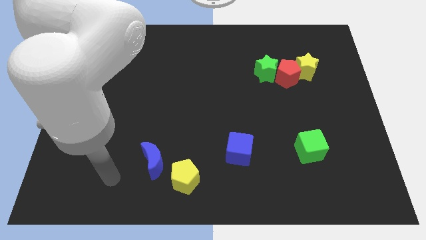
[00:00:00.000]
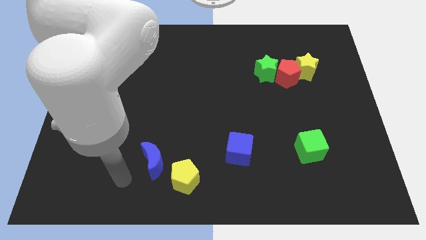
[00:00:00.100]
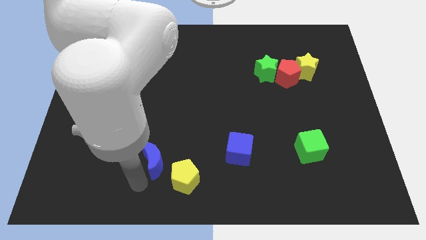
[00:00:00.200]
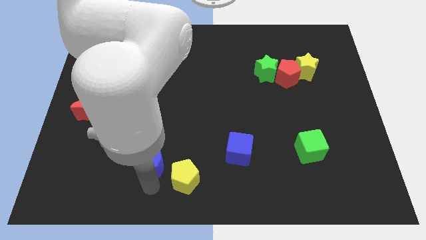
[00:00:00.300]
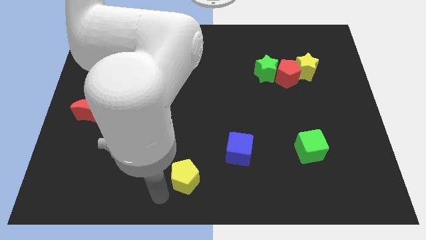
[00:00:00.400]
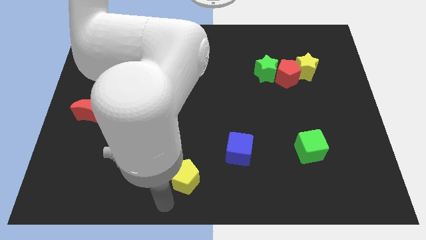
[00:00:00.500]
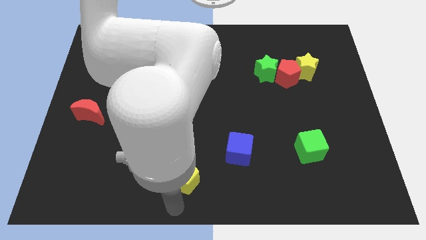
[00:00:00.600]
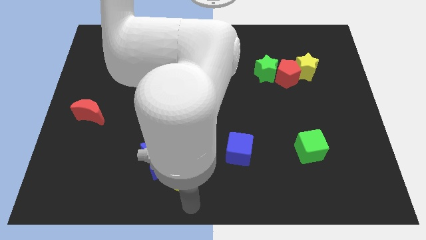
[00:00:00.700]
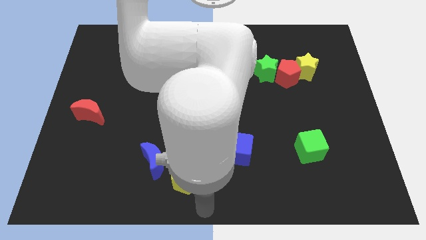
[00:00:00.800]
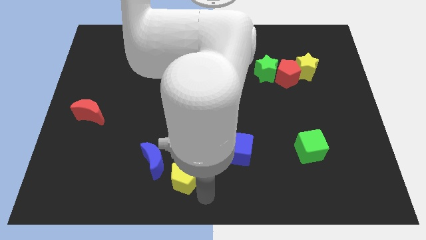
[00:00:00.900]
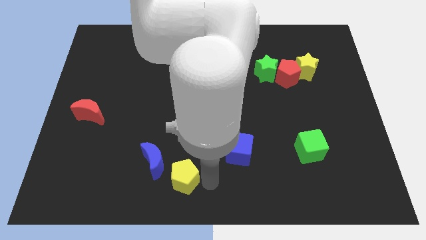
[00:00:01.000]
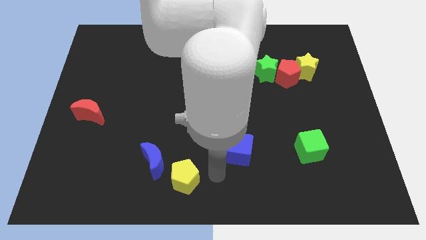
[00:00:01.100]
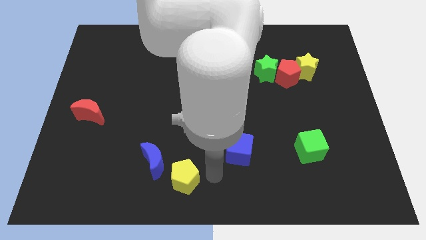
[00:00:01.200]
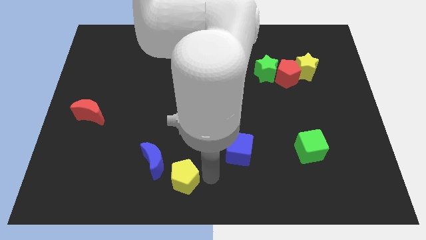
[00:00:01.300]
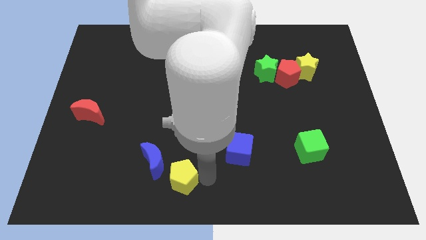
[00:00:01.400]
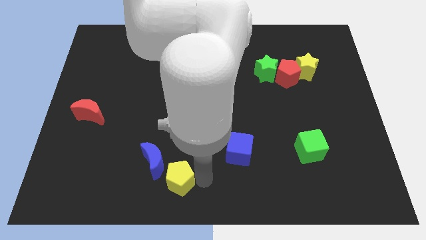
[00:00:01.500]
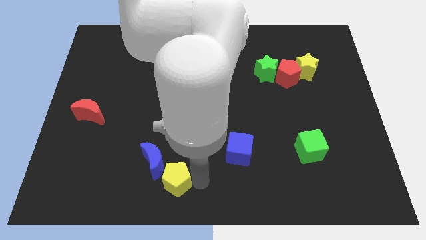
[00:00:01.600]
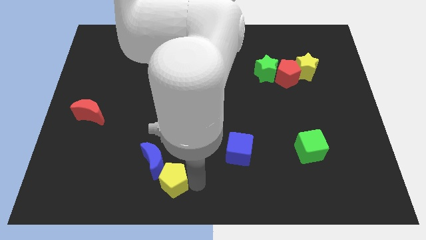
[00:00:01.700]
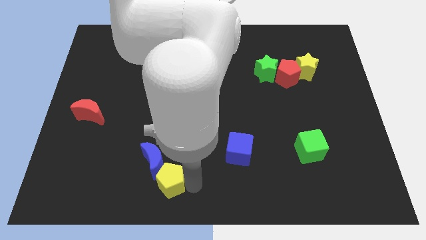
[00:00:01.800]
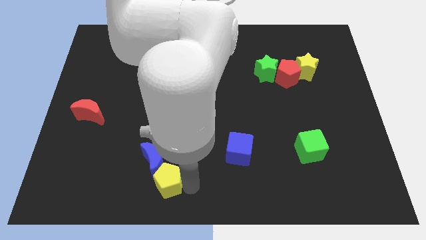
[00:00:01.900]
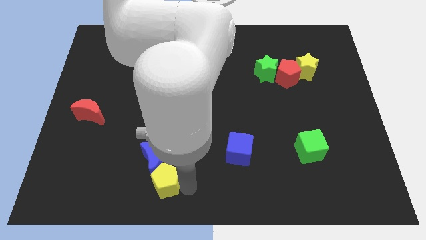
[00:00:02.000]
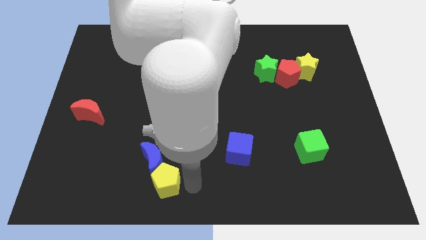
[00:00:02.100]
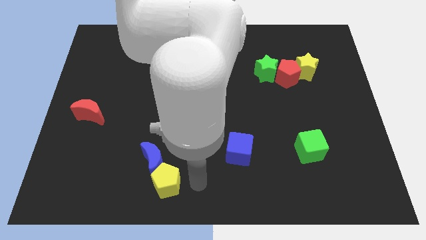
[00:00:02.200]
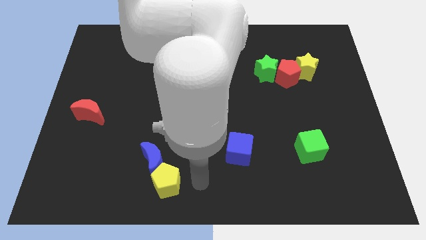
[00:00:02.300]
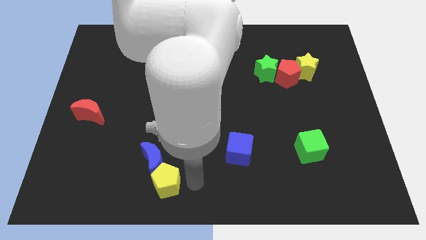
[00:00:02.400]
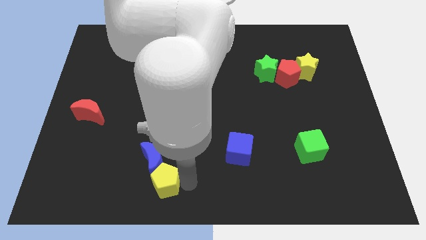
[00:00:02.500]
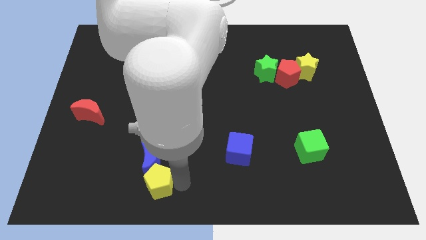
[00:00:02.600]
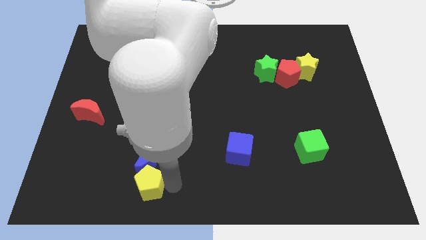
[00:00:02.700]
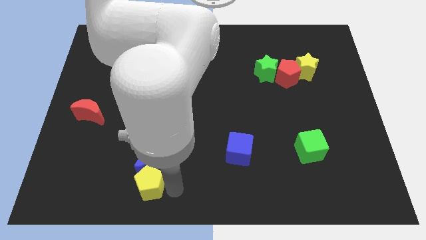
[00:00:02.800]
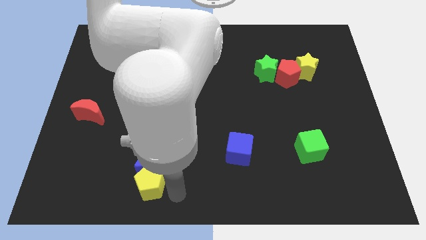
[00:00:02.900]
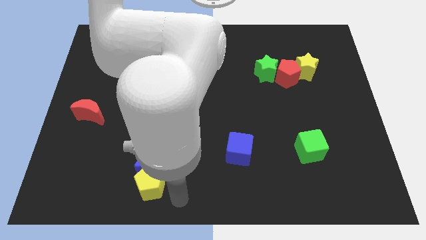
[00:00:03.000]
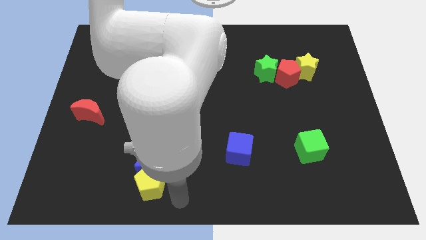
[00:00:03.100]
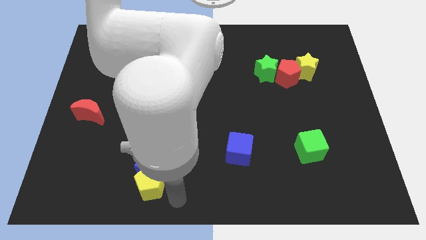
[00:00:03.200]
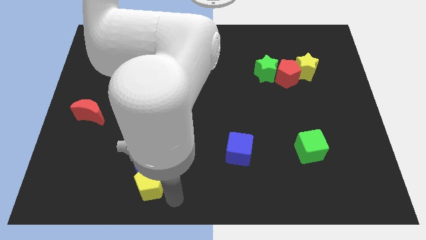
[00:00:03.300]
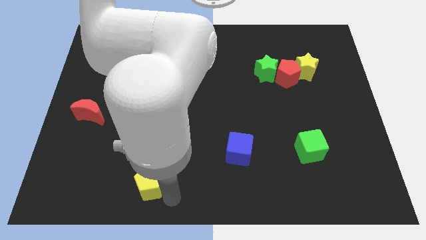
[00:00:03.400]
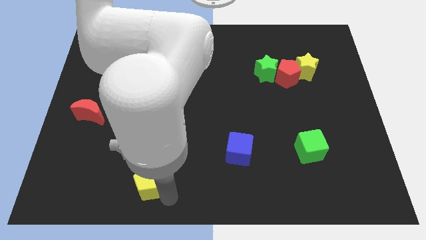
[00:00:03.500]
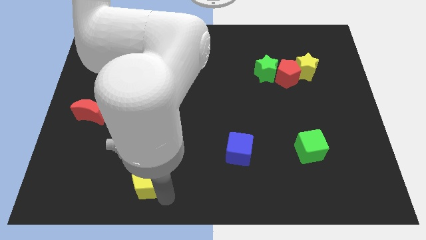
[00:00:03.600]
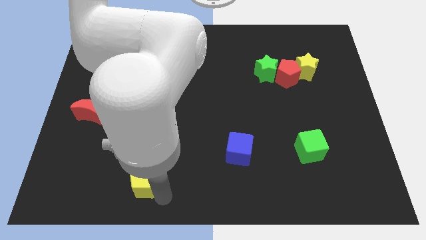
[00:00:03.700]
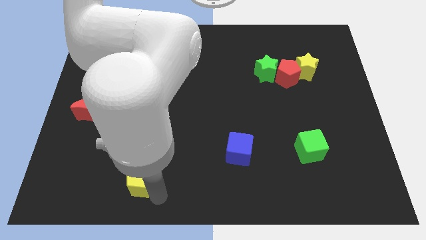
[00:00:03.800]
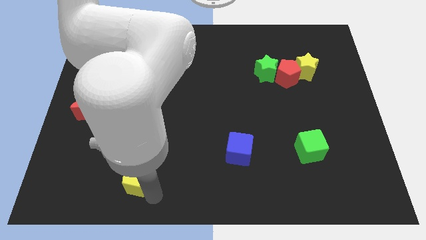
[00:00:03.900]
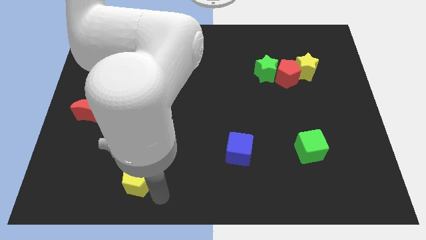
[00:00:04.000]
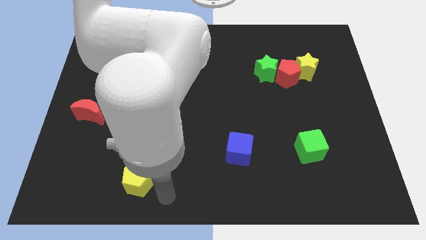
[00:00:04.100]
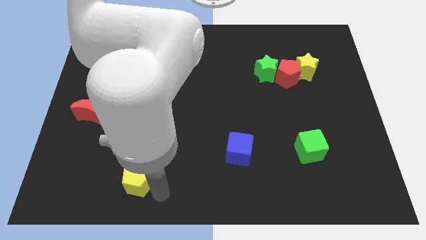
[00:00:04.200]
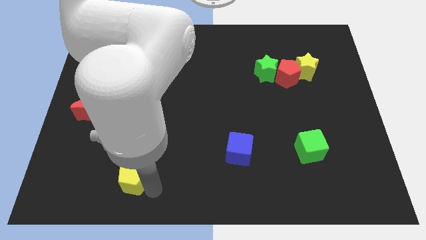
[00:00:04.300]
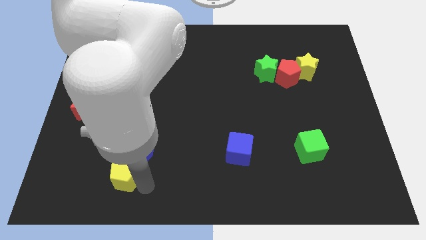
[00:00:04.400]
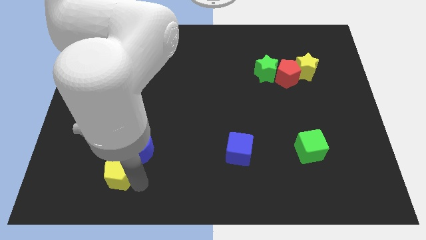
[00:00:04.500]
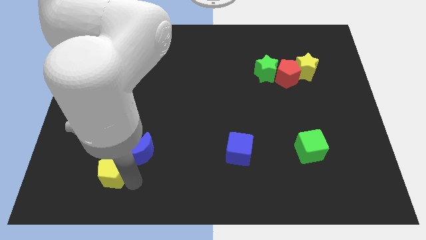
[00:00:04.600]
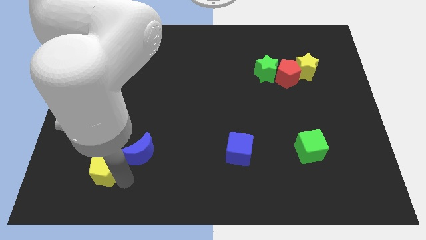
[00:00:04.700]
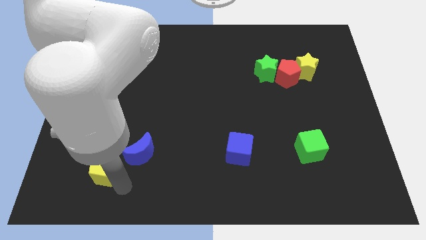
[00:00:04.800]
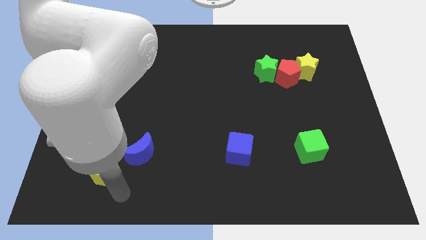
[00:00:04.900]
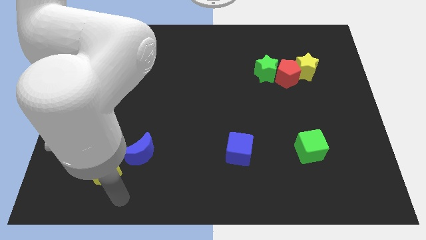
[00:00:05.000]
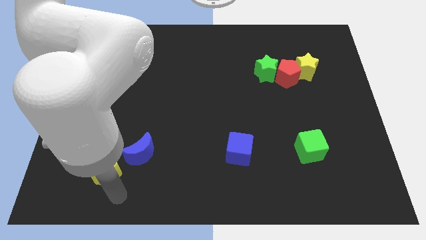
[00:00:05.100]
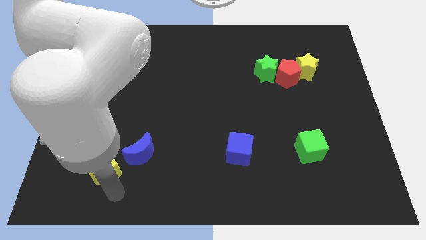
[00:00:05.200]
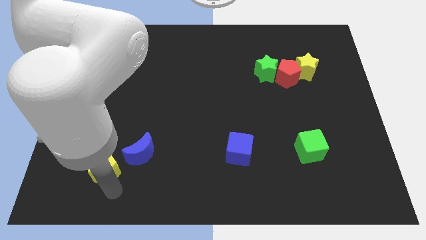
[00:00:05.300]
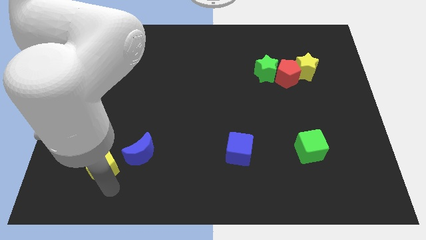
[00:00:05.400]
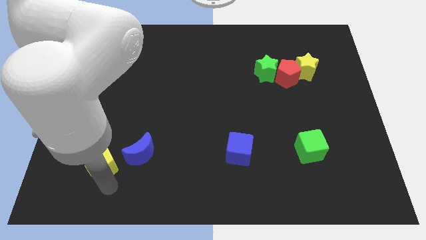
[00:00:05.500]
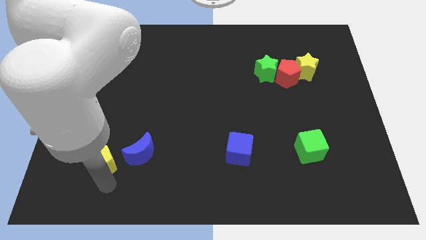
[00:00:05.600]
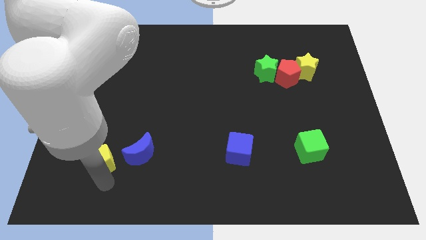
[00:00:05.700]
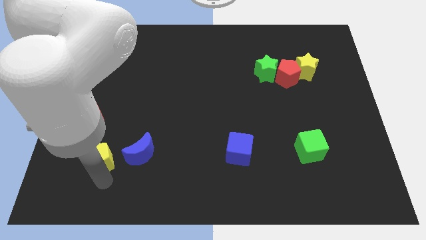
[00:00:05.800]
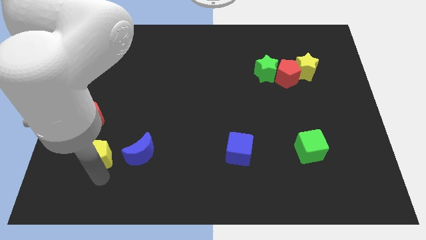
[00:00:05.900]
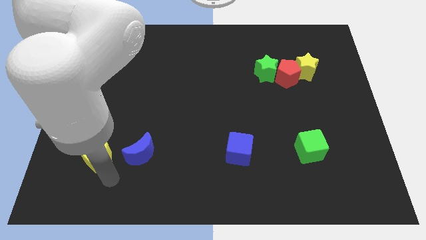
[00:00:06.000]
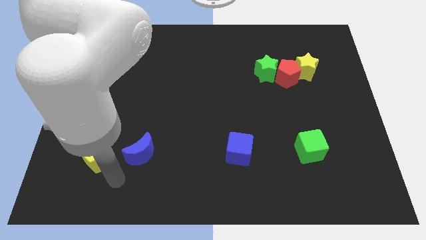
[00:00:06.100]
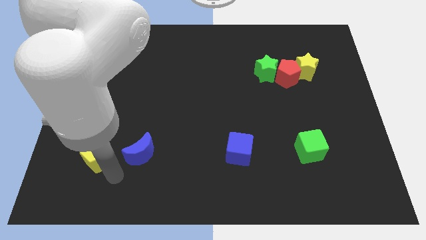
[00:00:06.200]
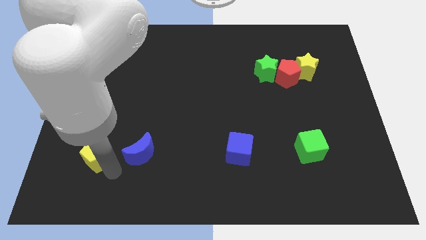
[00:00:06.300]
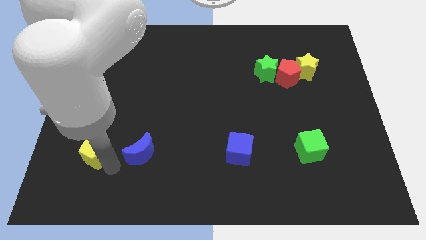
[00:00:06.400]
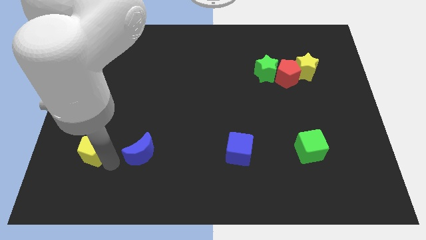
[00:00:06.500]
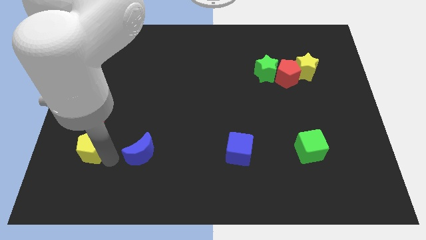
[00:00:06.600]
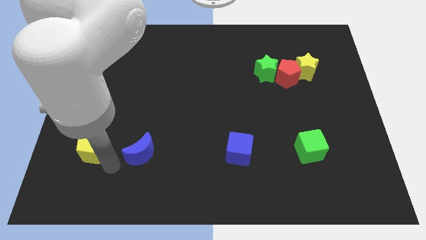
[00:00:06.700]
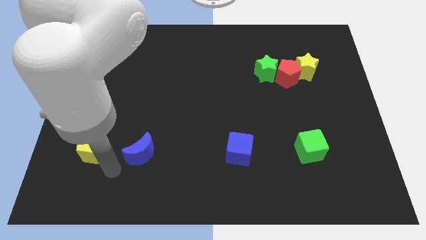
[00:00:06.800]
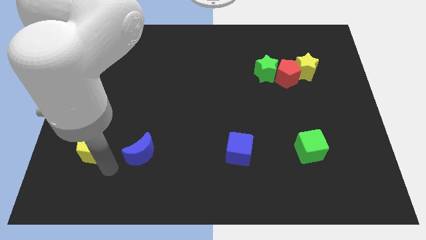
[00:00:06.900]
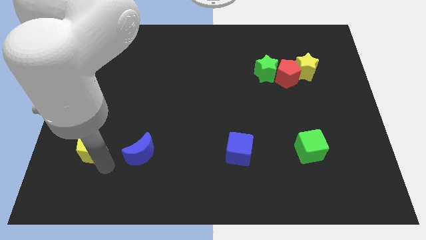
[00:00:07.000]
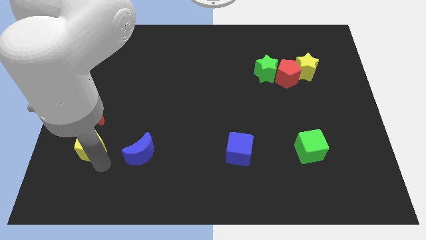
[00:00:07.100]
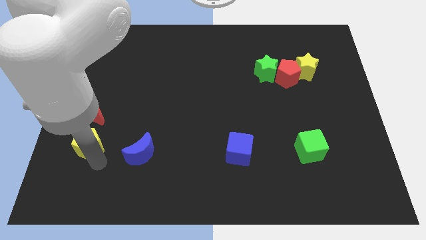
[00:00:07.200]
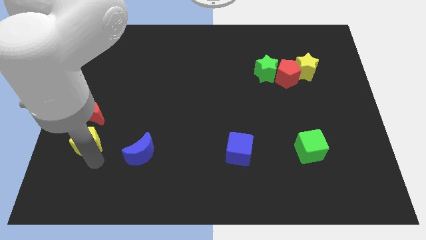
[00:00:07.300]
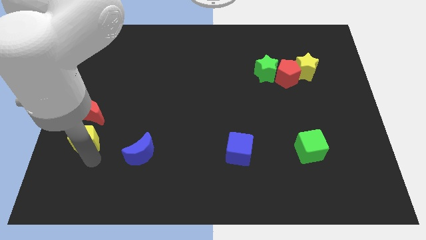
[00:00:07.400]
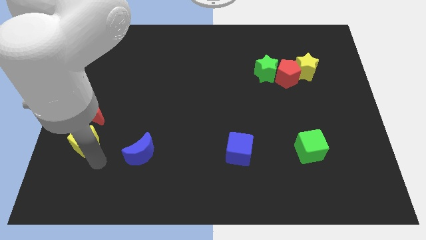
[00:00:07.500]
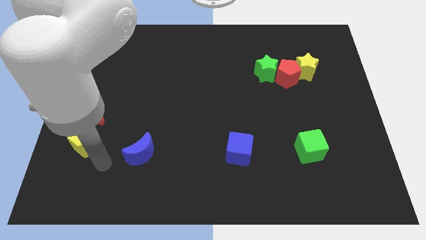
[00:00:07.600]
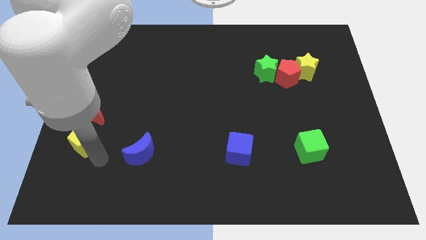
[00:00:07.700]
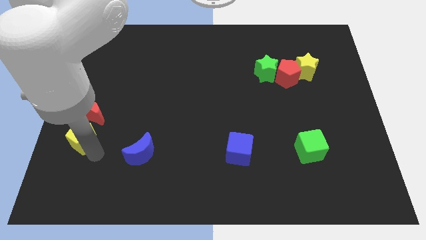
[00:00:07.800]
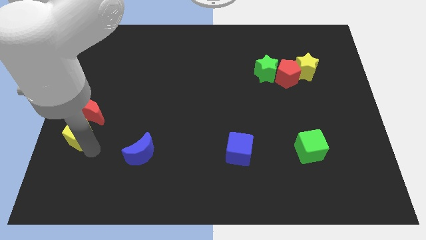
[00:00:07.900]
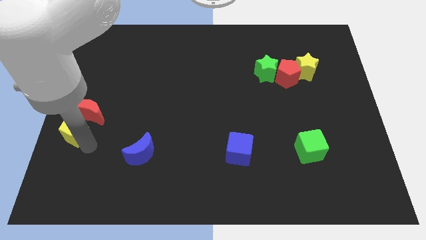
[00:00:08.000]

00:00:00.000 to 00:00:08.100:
put the yellow pentagon to the center left
